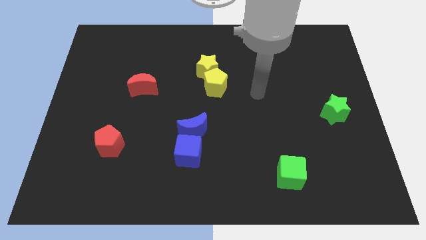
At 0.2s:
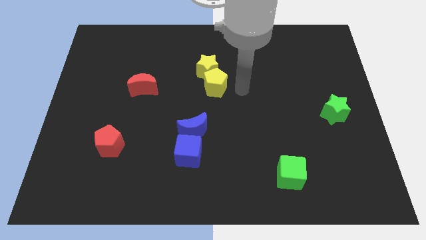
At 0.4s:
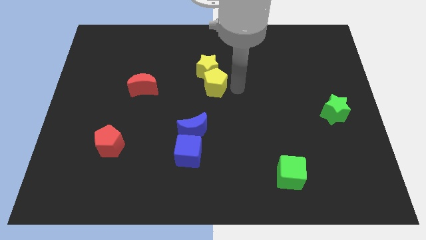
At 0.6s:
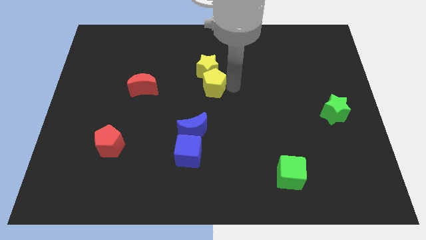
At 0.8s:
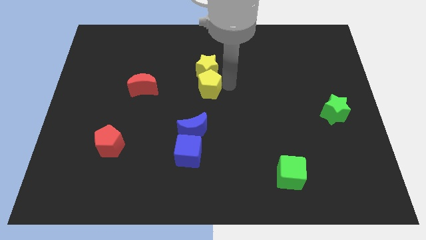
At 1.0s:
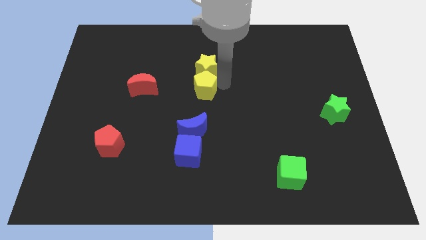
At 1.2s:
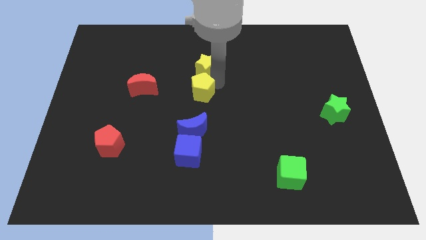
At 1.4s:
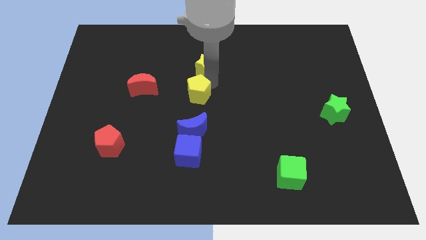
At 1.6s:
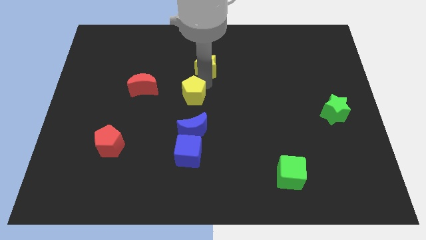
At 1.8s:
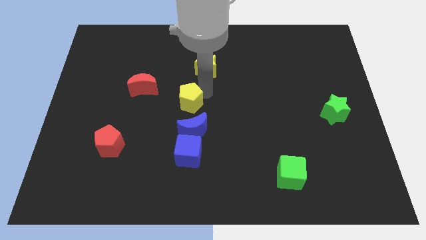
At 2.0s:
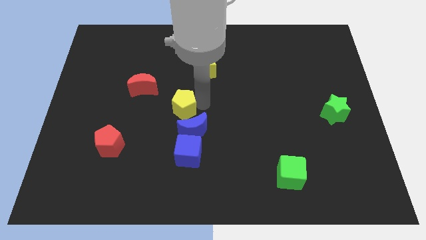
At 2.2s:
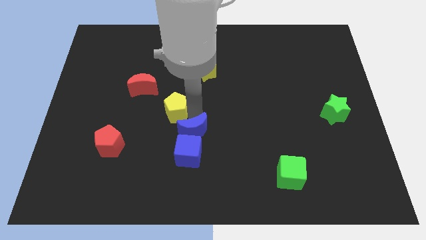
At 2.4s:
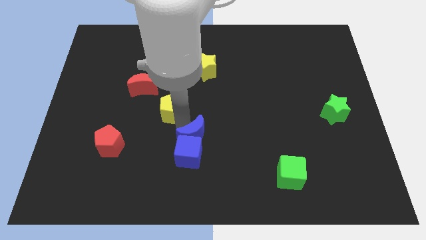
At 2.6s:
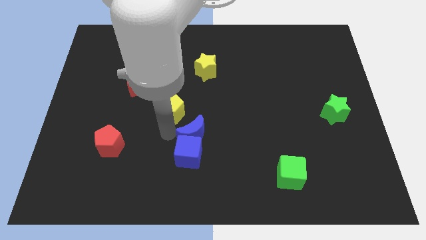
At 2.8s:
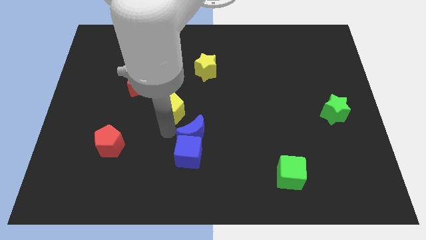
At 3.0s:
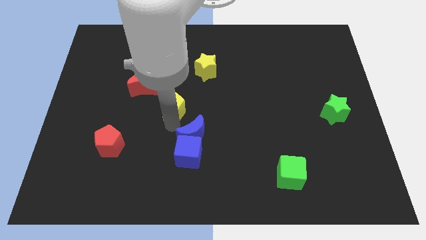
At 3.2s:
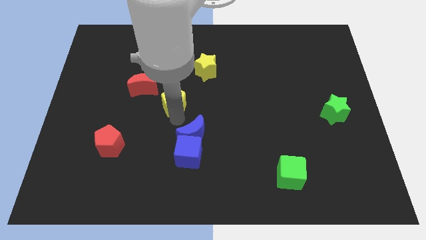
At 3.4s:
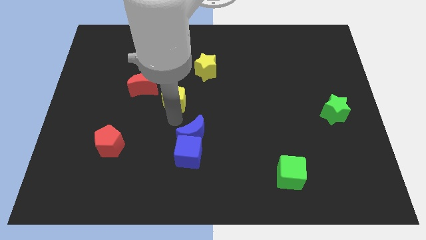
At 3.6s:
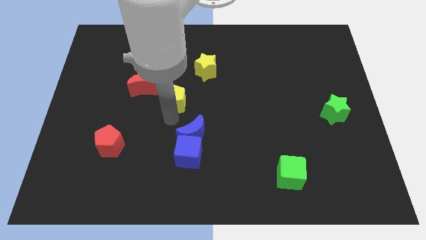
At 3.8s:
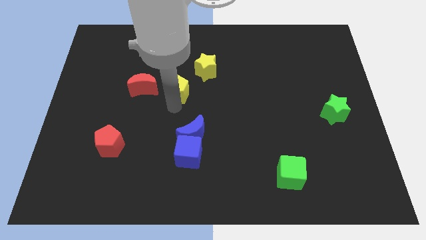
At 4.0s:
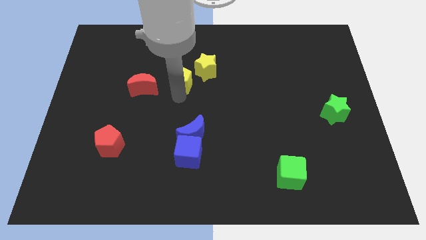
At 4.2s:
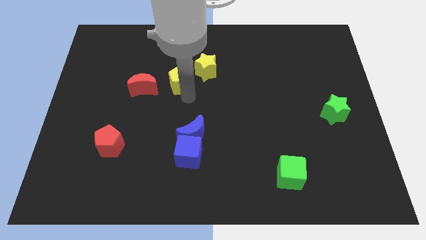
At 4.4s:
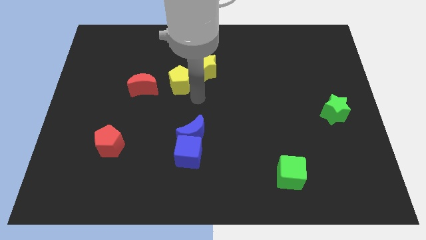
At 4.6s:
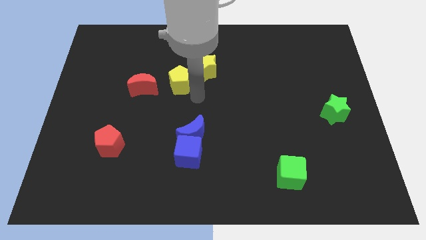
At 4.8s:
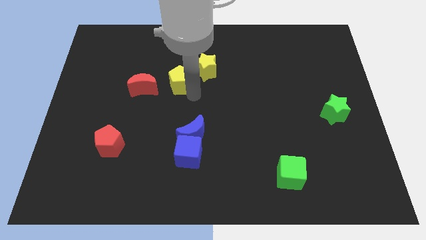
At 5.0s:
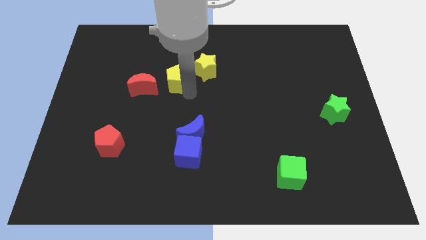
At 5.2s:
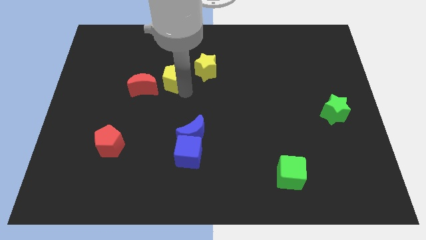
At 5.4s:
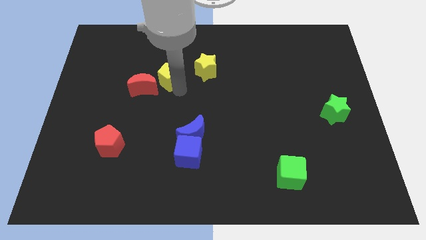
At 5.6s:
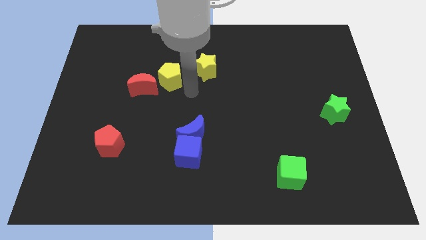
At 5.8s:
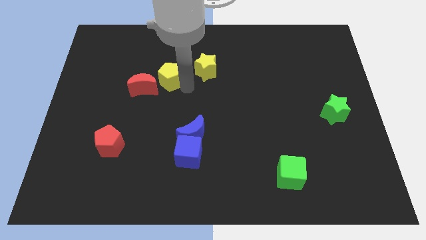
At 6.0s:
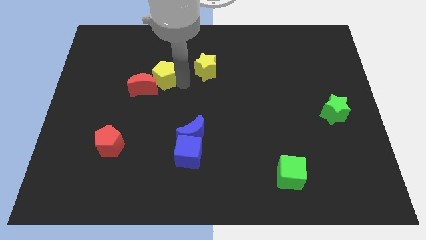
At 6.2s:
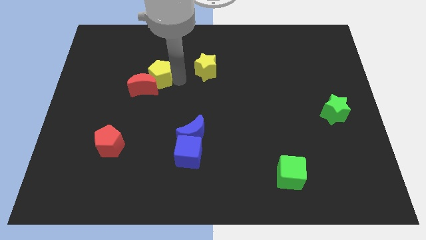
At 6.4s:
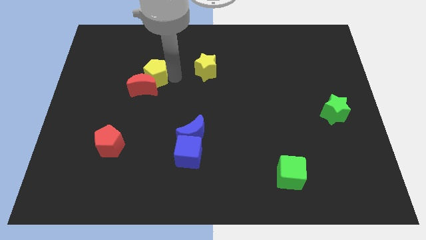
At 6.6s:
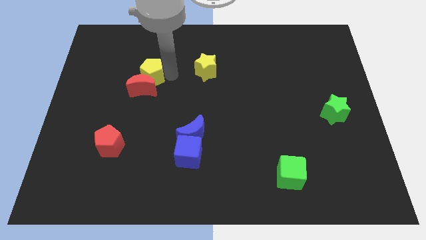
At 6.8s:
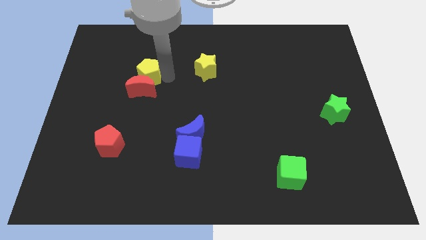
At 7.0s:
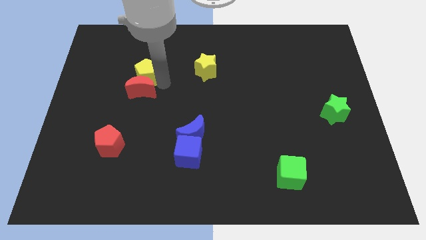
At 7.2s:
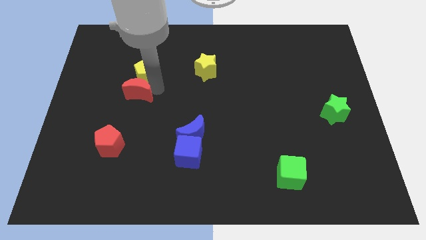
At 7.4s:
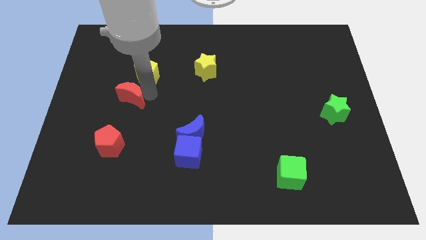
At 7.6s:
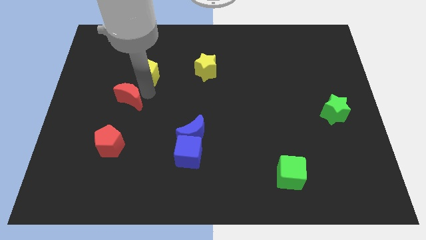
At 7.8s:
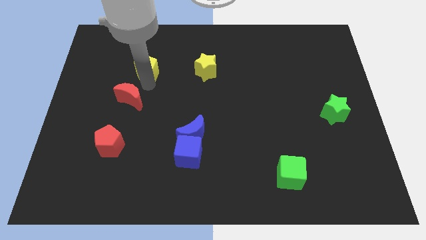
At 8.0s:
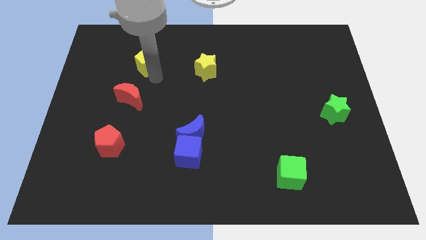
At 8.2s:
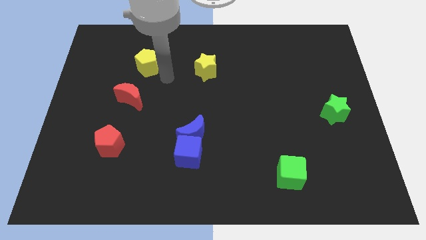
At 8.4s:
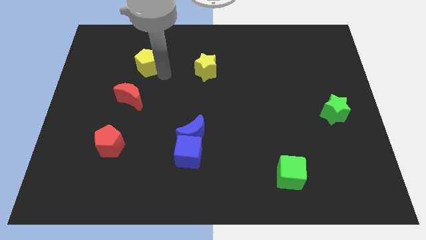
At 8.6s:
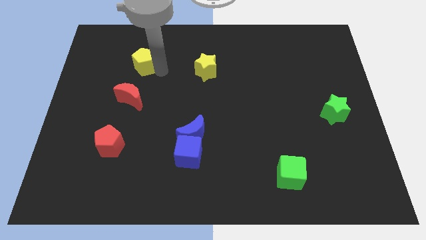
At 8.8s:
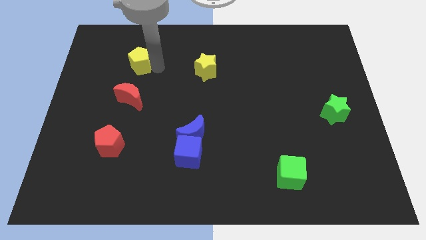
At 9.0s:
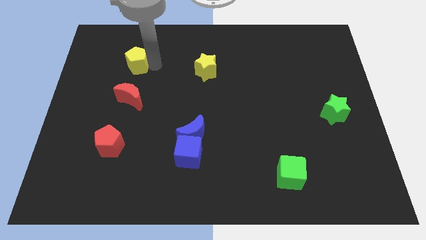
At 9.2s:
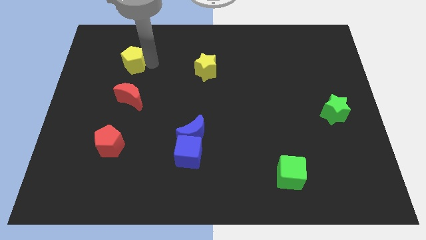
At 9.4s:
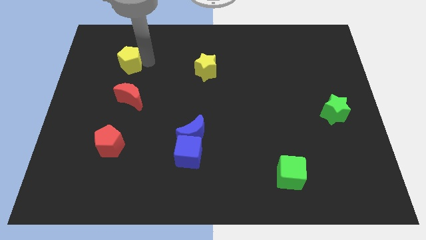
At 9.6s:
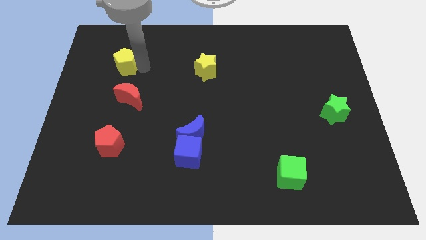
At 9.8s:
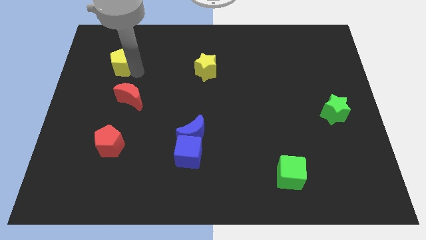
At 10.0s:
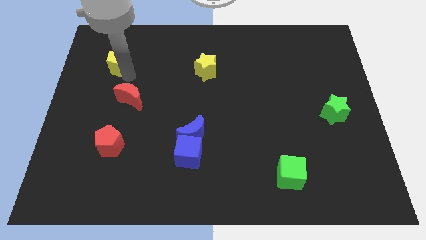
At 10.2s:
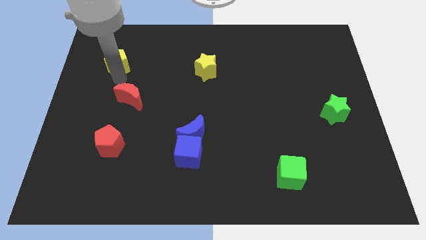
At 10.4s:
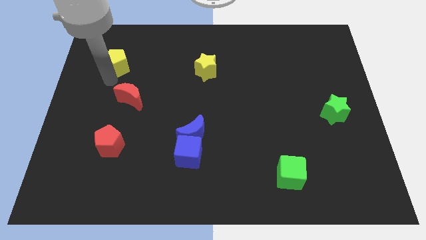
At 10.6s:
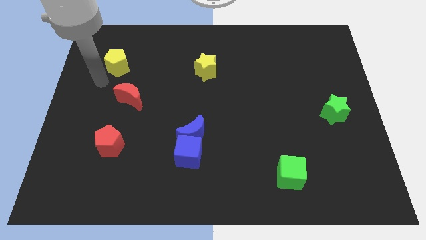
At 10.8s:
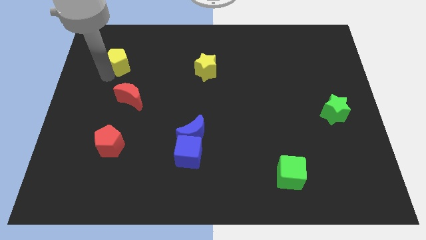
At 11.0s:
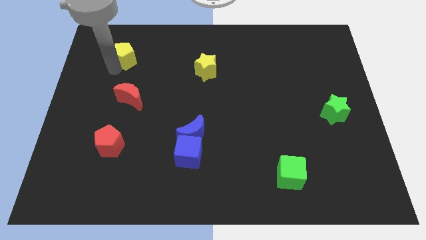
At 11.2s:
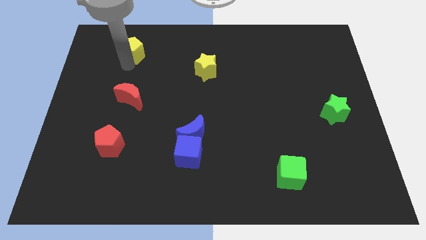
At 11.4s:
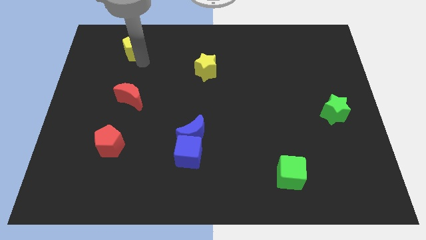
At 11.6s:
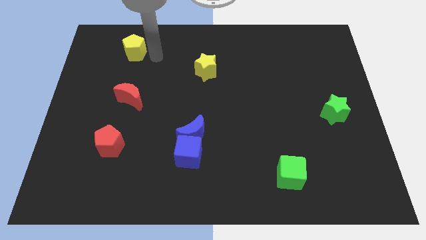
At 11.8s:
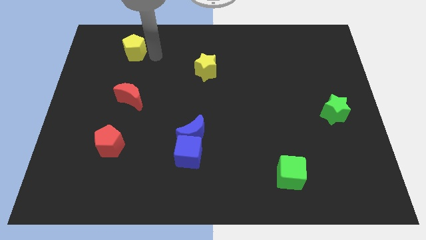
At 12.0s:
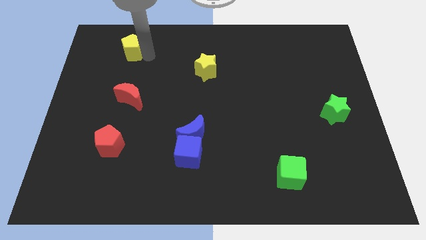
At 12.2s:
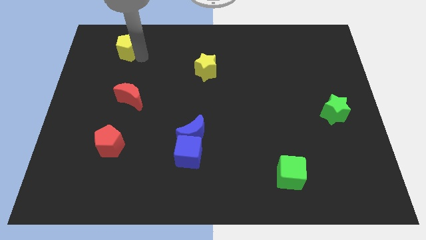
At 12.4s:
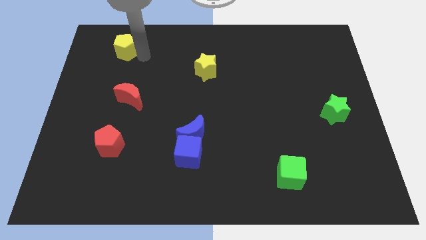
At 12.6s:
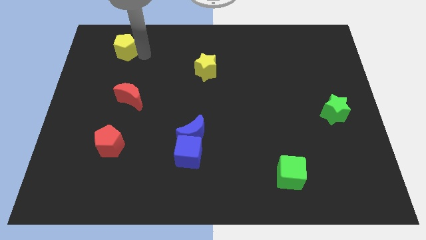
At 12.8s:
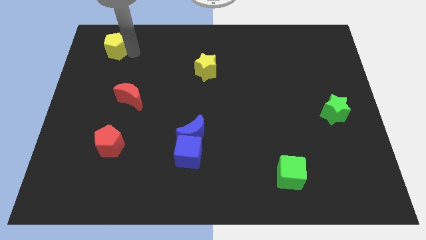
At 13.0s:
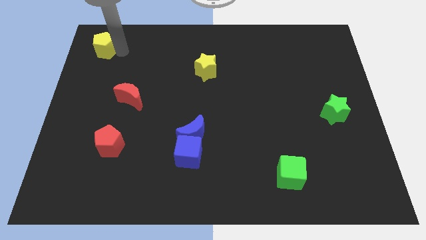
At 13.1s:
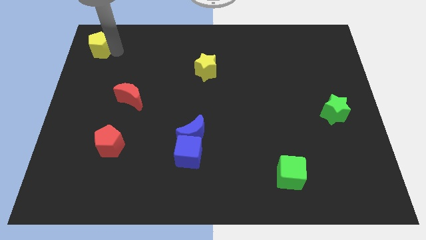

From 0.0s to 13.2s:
put the yellow pentagon to the top left

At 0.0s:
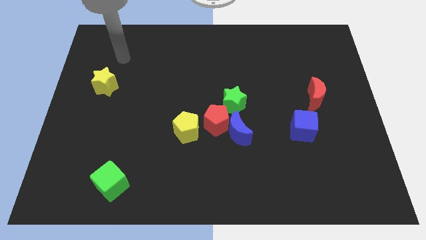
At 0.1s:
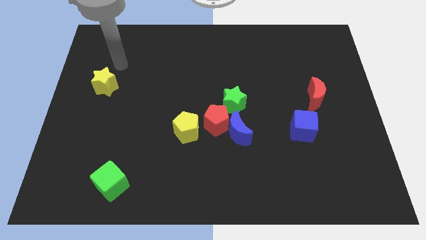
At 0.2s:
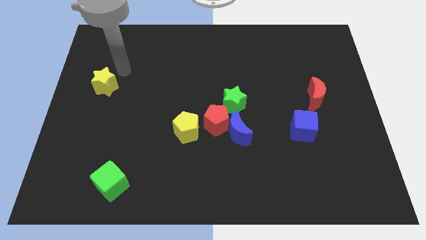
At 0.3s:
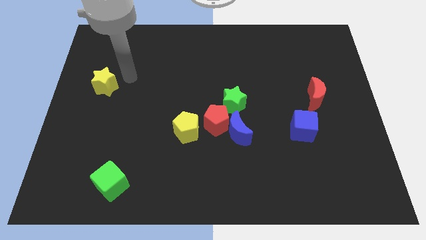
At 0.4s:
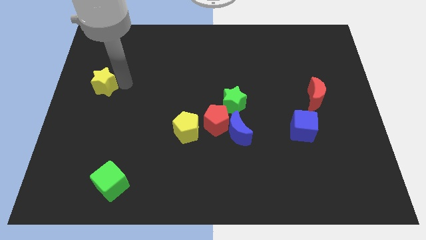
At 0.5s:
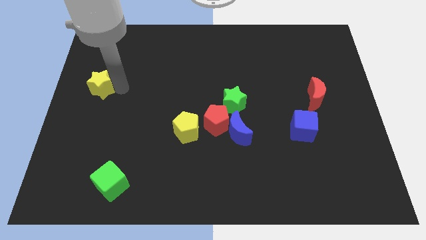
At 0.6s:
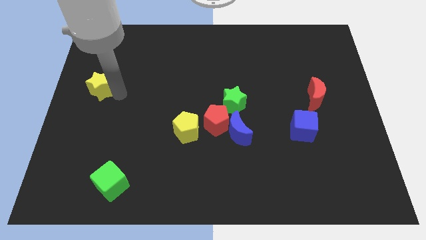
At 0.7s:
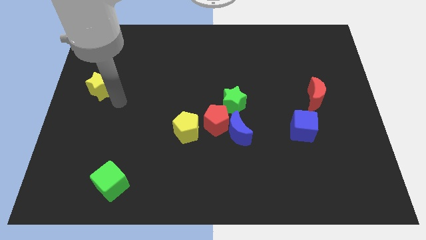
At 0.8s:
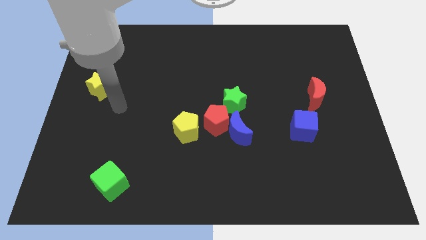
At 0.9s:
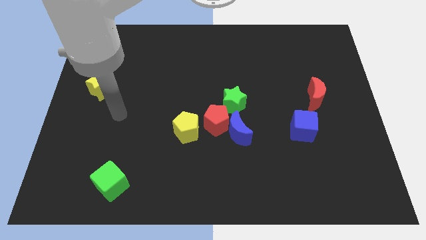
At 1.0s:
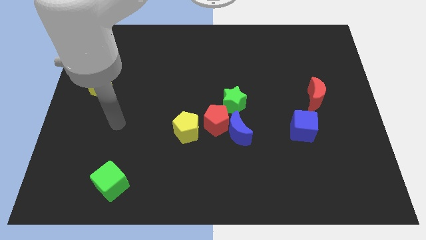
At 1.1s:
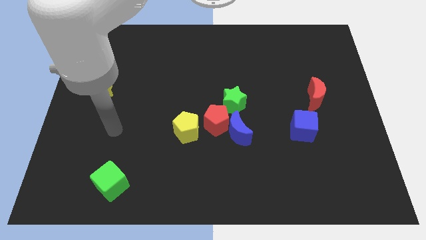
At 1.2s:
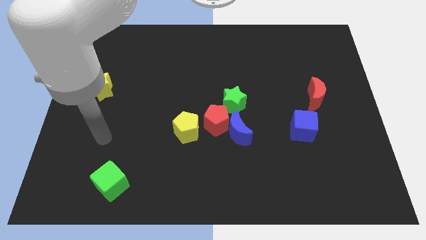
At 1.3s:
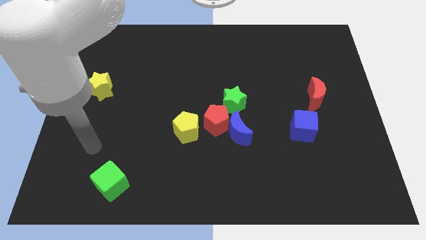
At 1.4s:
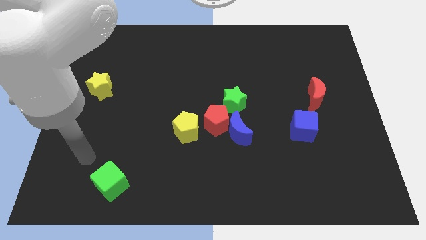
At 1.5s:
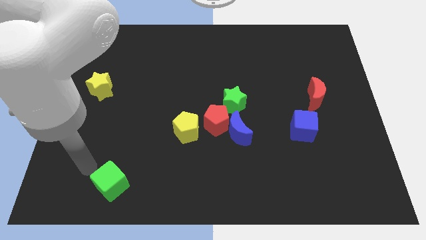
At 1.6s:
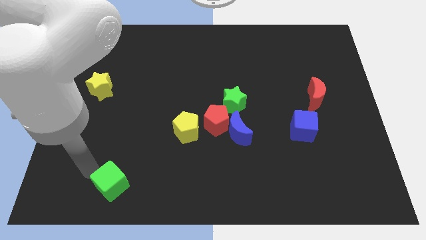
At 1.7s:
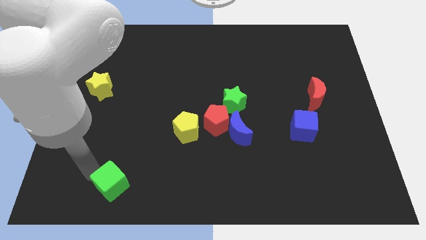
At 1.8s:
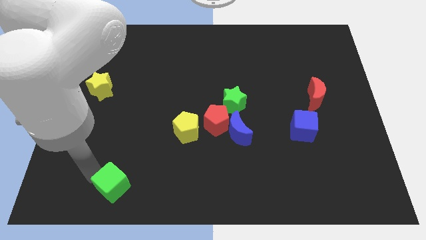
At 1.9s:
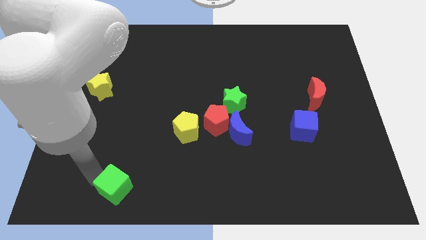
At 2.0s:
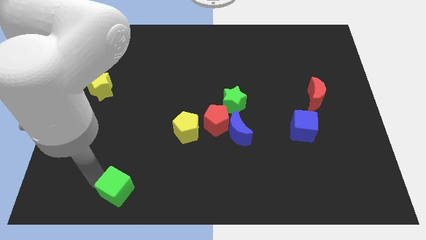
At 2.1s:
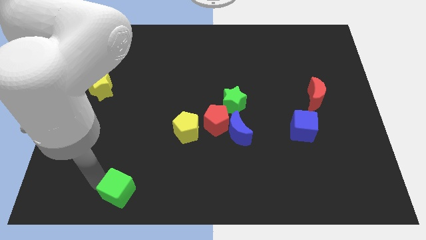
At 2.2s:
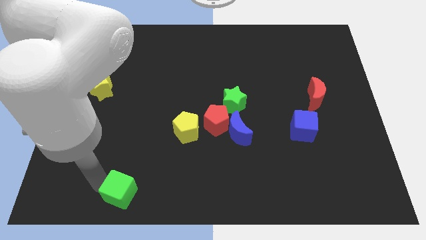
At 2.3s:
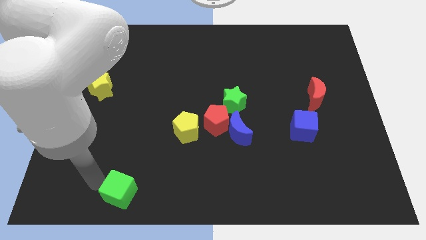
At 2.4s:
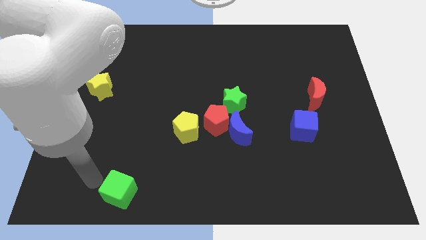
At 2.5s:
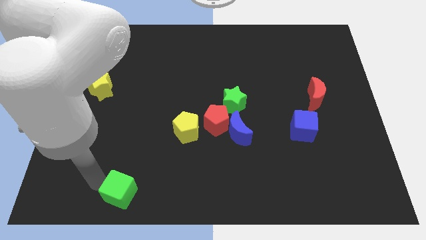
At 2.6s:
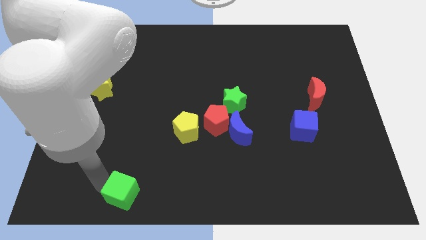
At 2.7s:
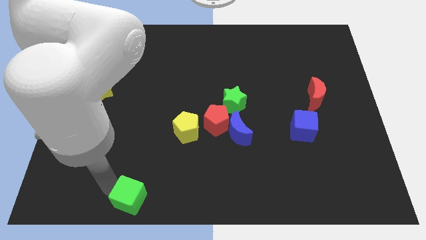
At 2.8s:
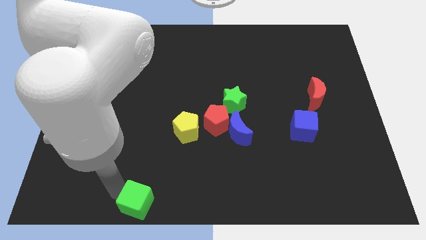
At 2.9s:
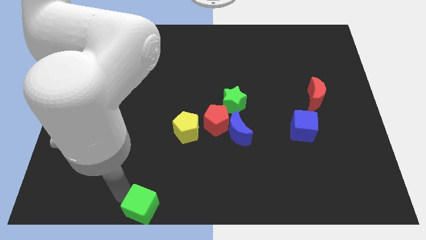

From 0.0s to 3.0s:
put the green cube to the bottom side
